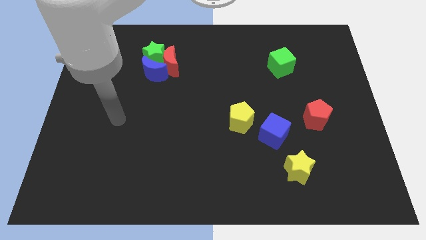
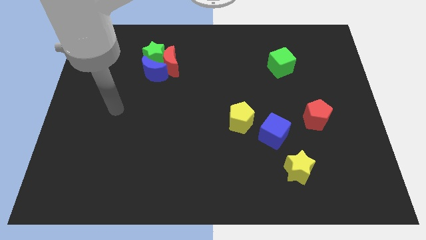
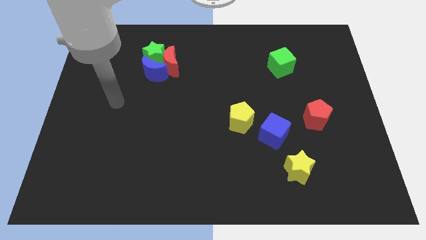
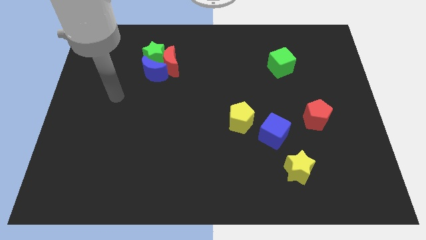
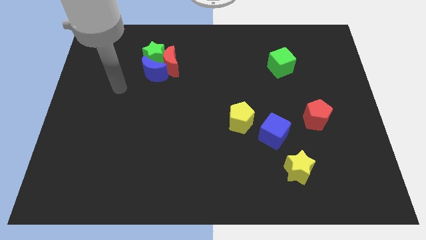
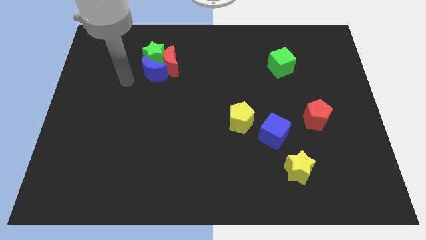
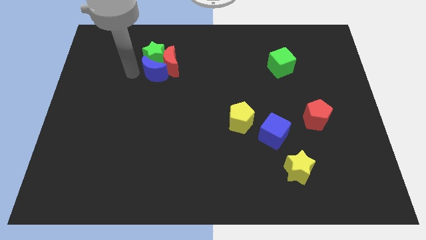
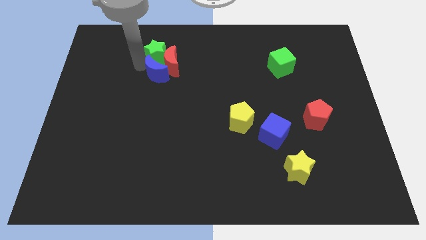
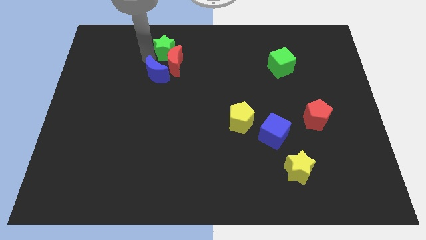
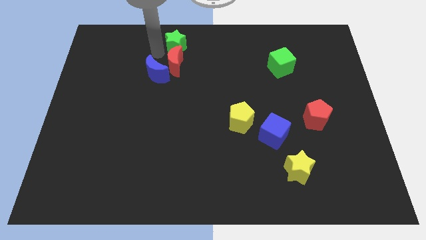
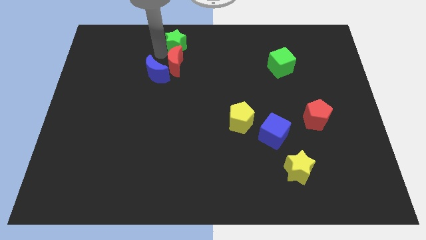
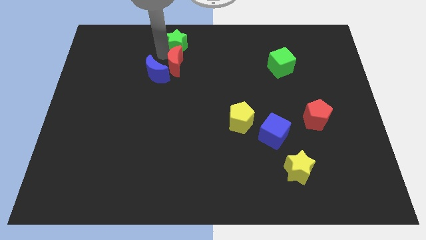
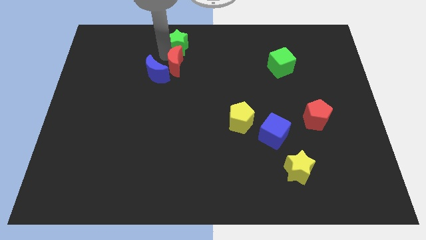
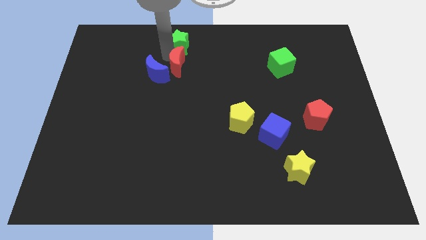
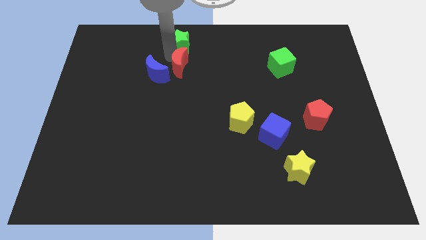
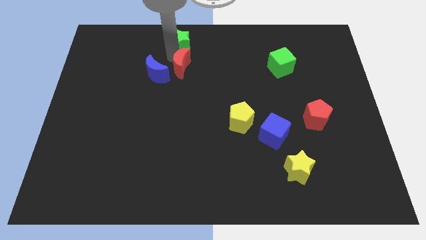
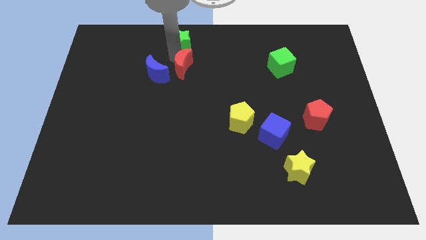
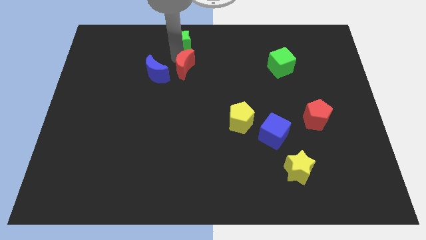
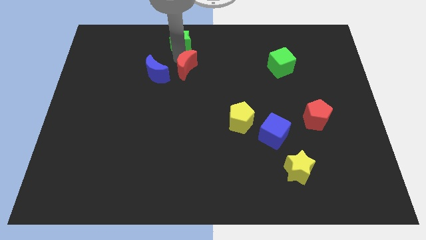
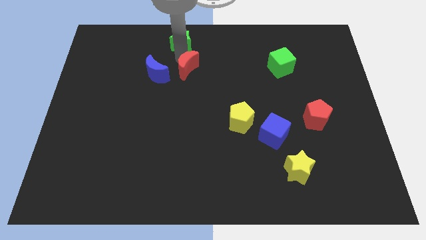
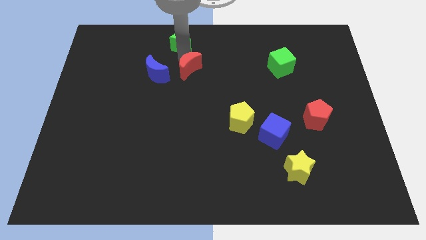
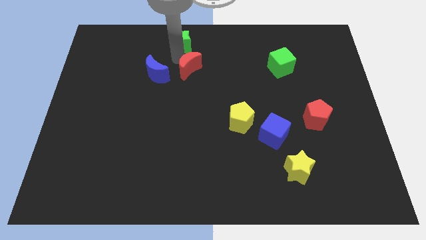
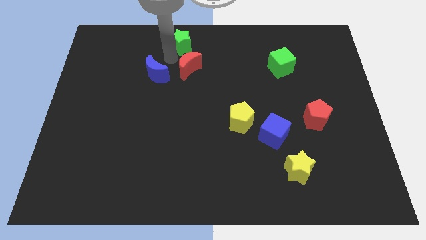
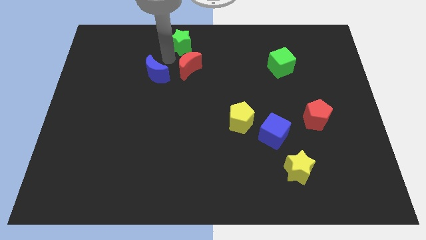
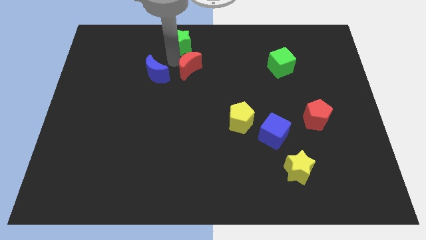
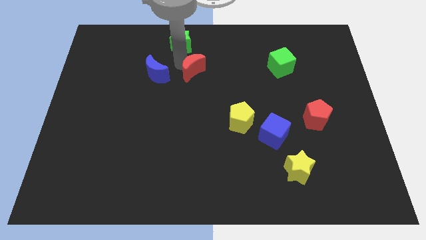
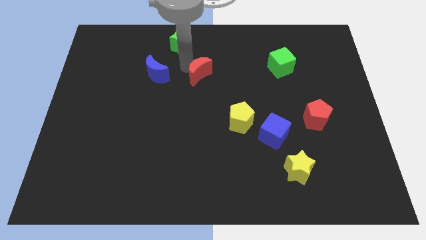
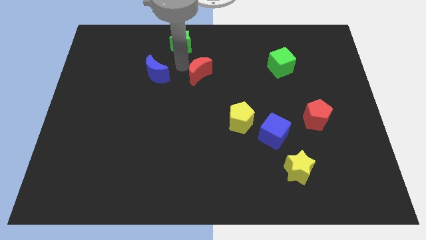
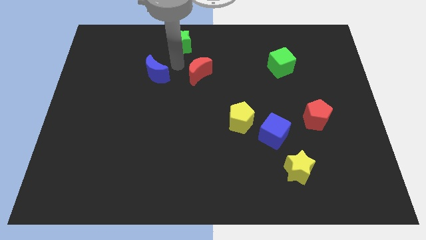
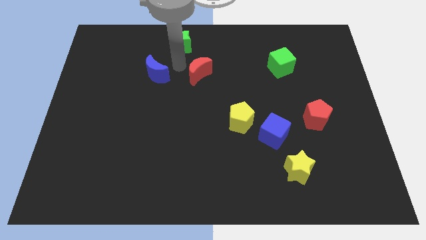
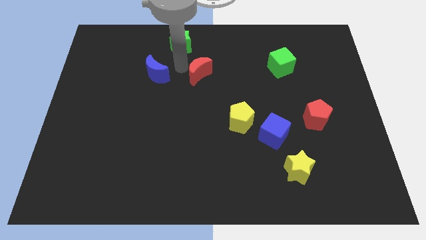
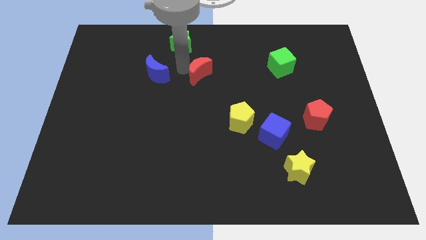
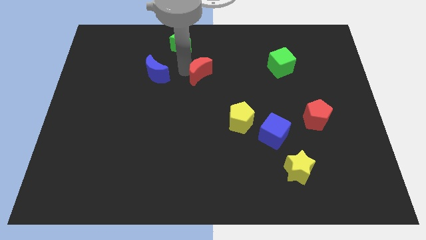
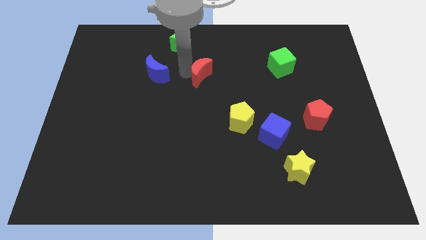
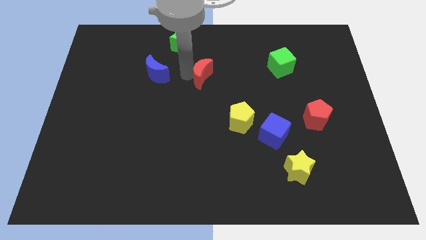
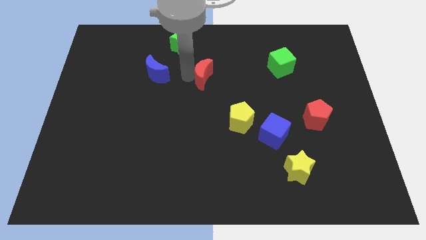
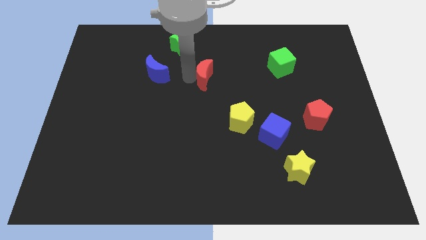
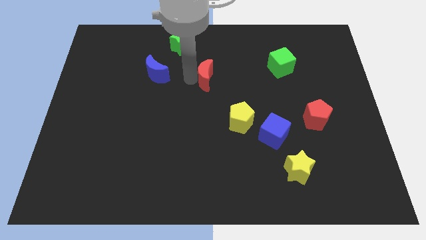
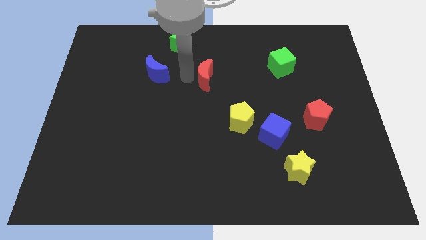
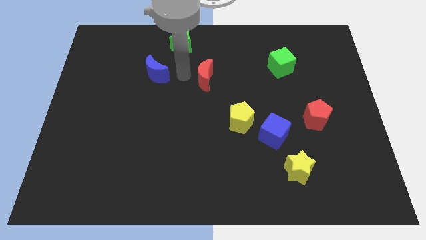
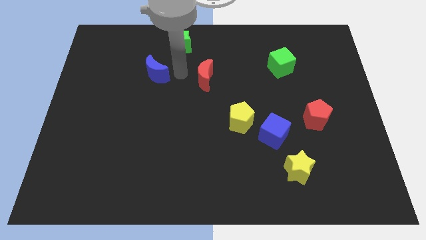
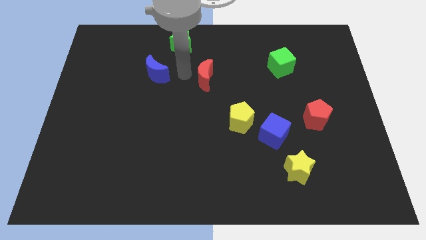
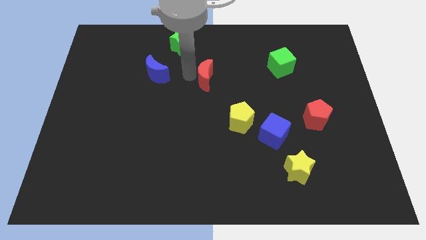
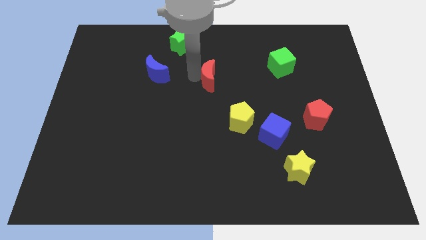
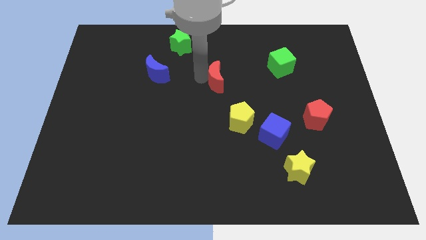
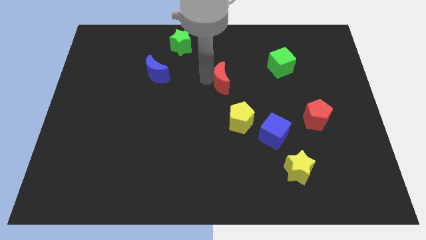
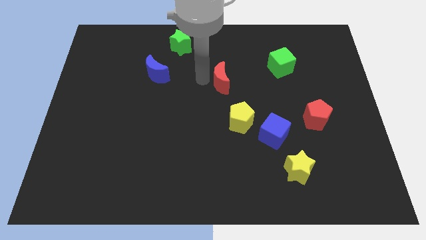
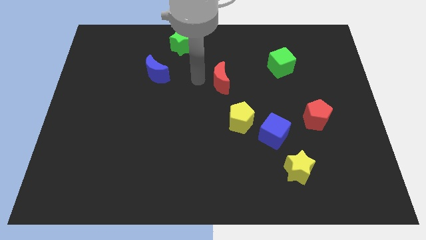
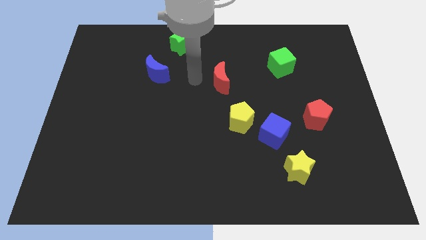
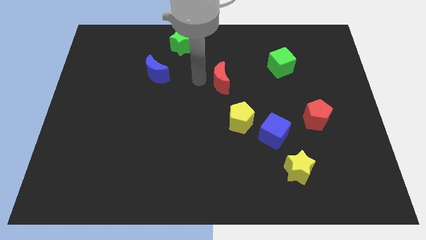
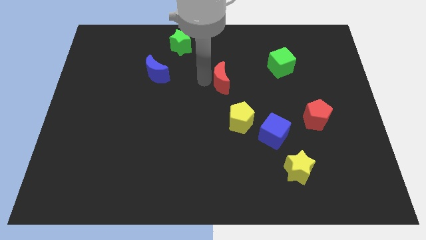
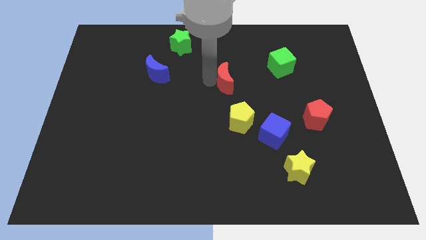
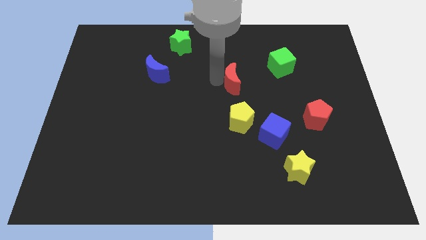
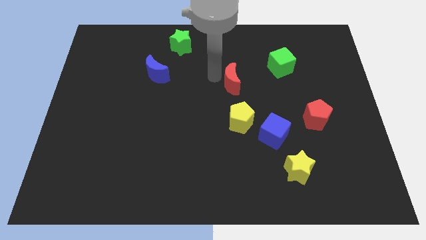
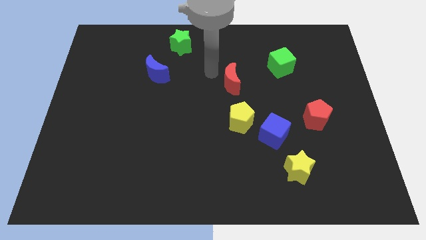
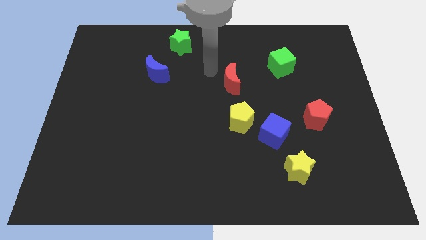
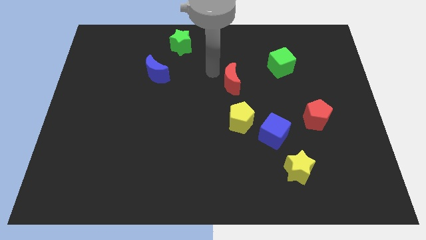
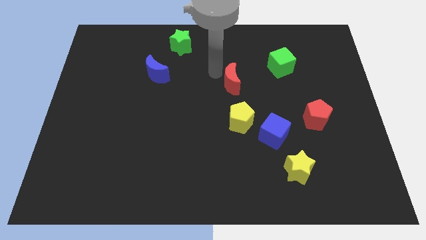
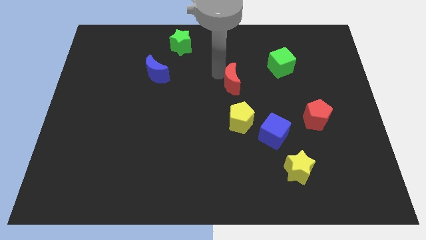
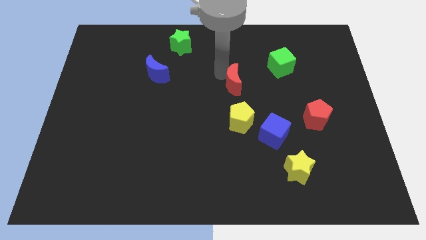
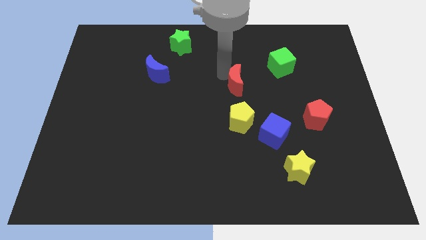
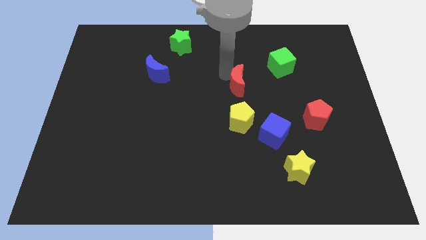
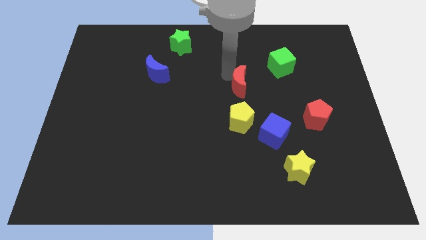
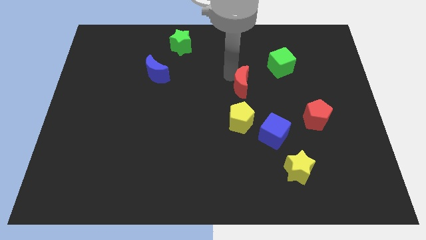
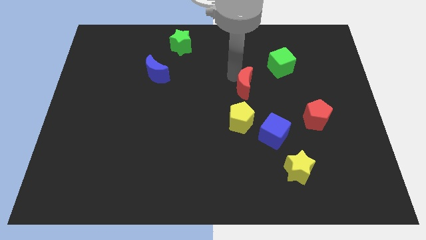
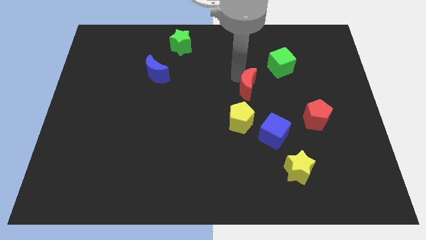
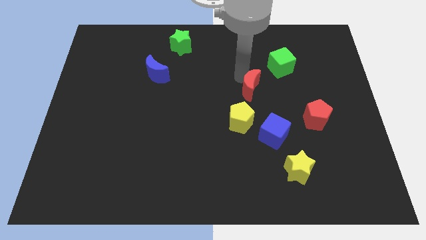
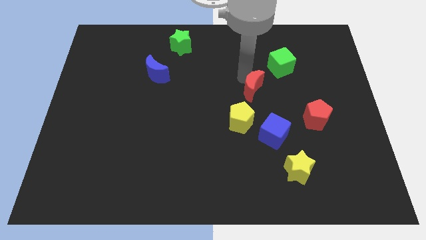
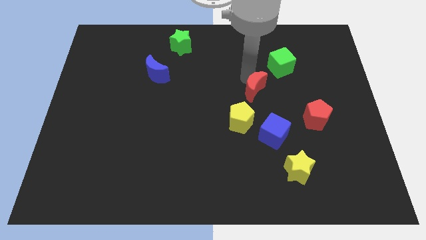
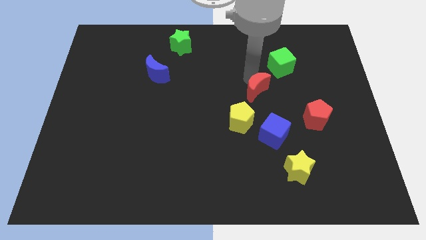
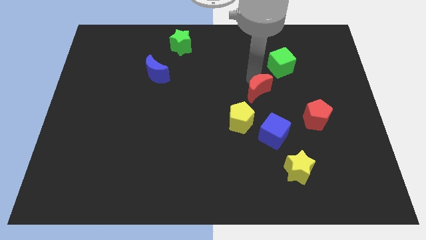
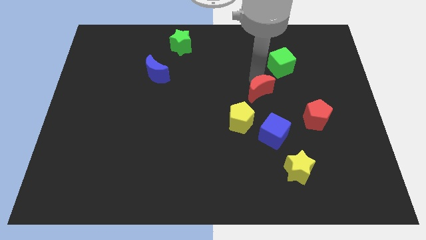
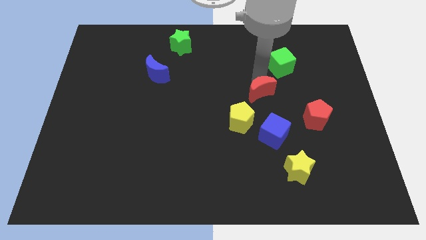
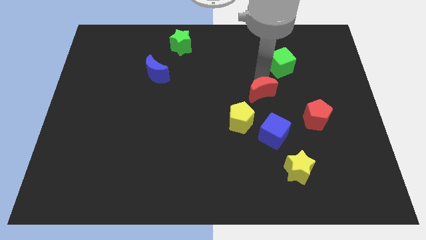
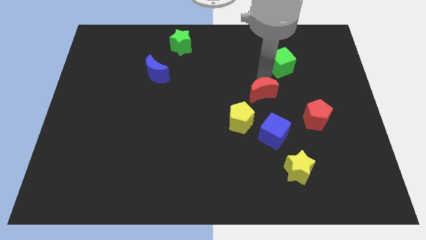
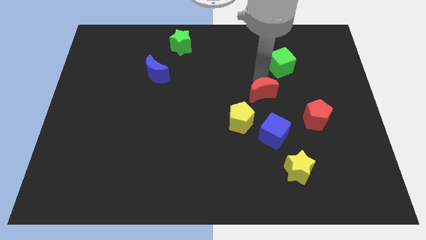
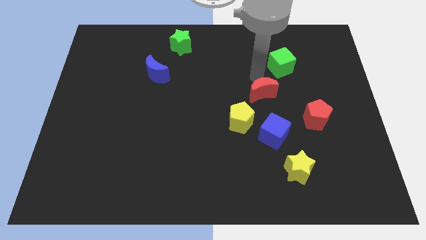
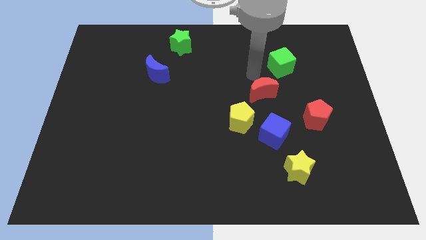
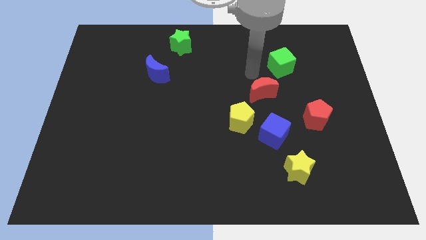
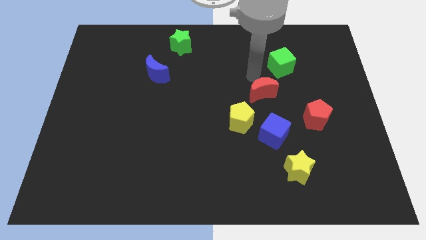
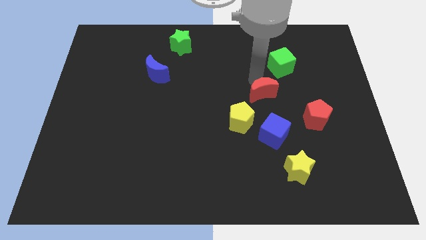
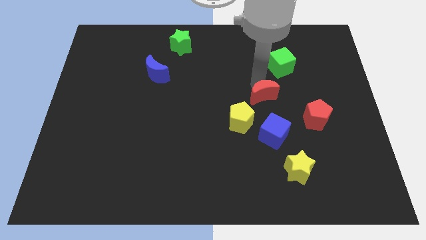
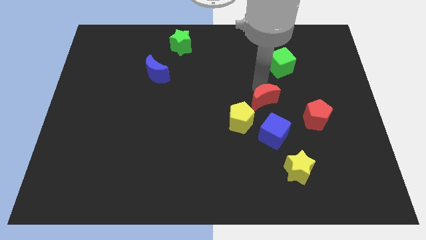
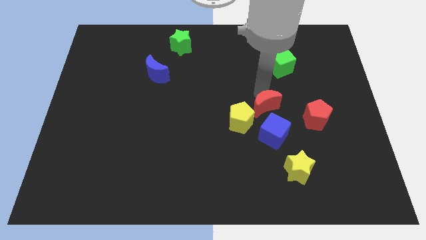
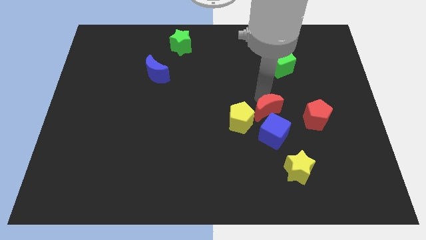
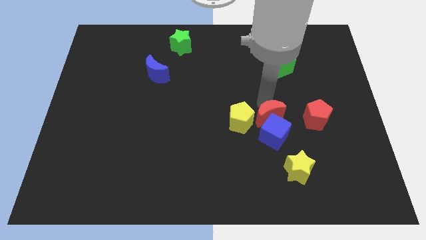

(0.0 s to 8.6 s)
put the red moon towards the blue cube
